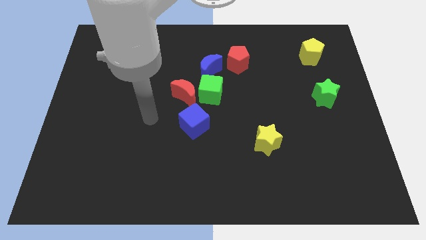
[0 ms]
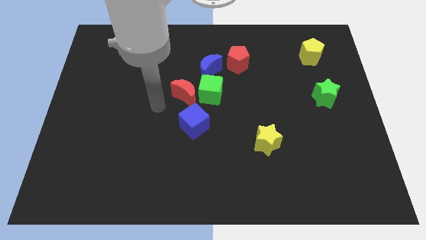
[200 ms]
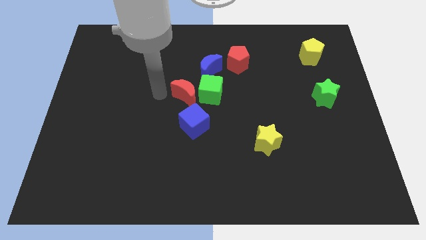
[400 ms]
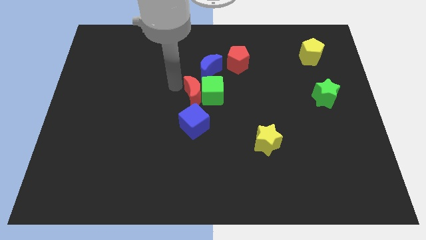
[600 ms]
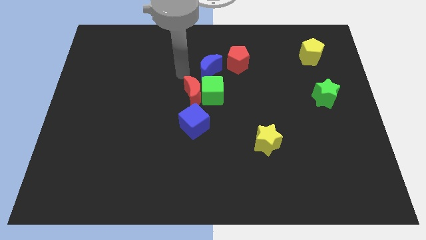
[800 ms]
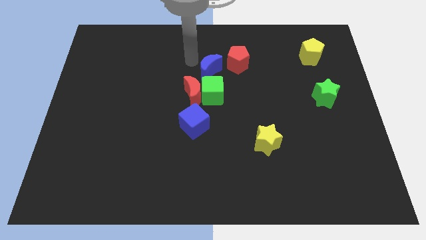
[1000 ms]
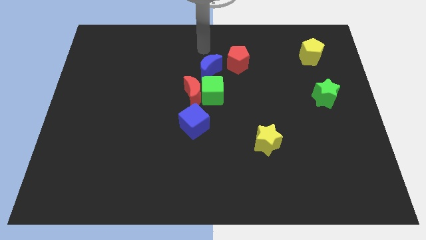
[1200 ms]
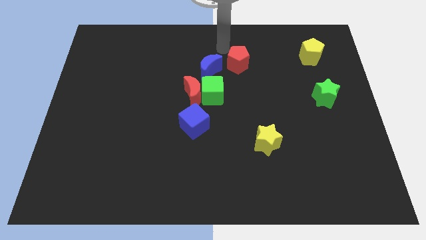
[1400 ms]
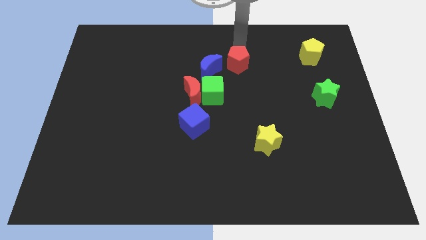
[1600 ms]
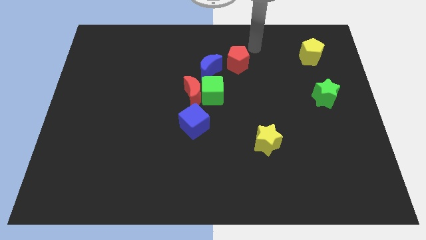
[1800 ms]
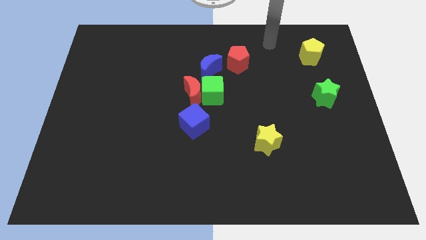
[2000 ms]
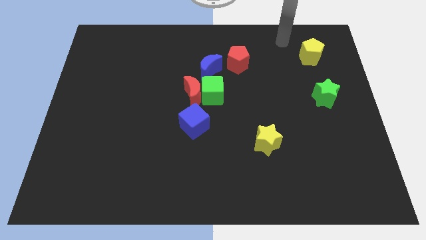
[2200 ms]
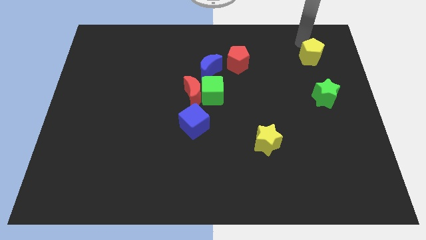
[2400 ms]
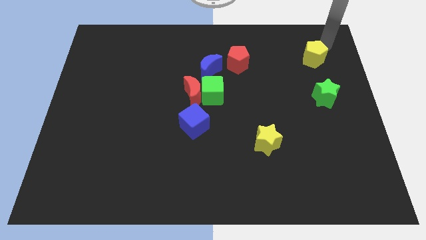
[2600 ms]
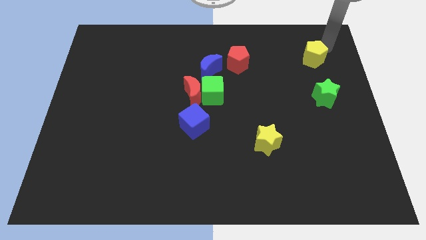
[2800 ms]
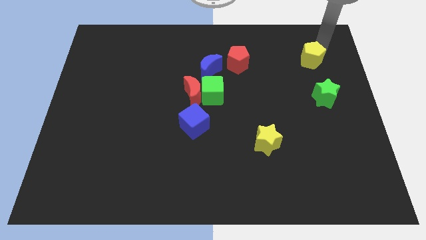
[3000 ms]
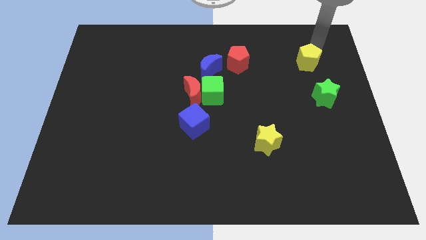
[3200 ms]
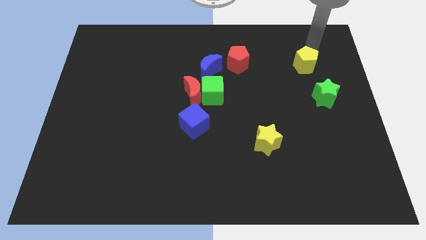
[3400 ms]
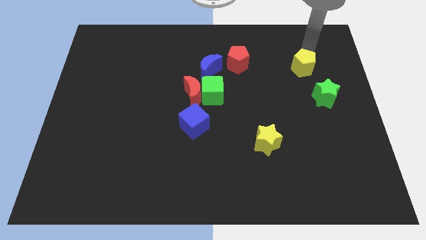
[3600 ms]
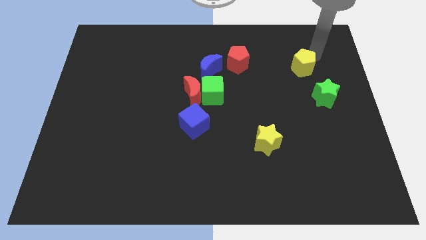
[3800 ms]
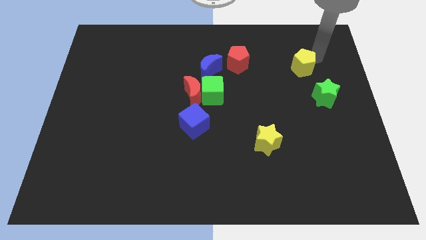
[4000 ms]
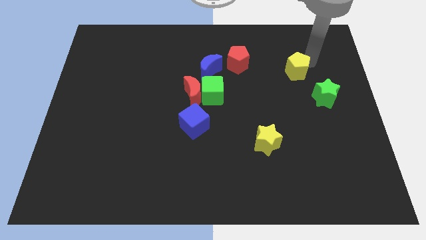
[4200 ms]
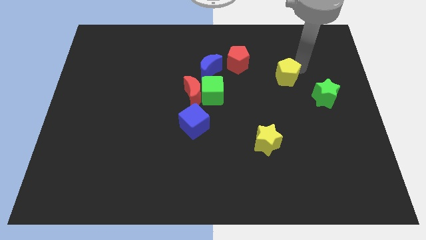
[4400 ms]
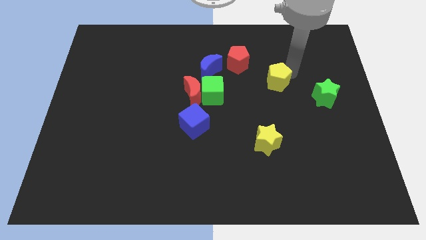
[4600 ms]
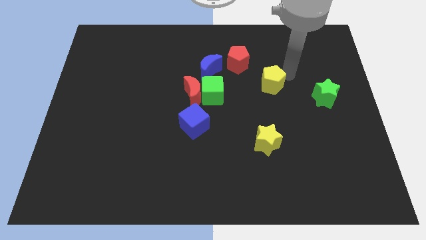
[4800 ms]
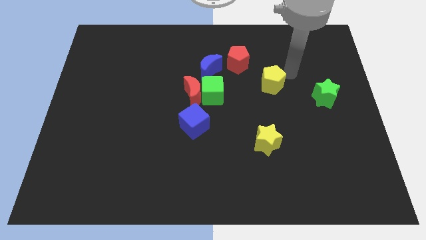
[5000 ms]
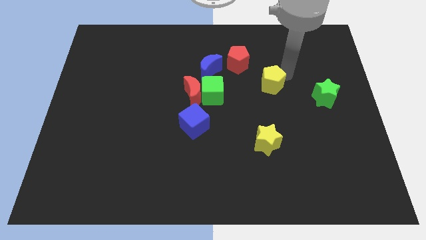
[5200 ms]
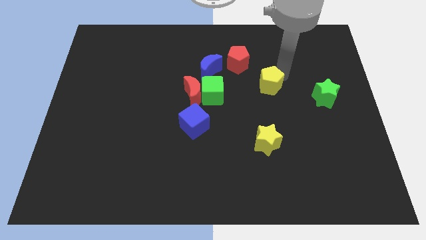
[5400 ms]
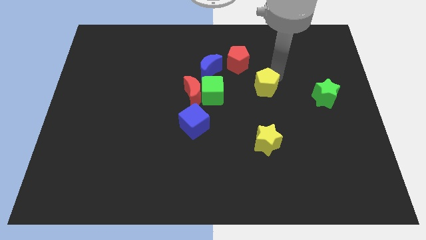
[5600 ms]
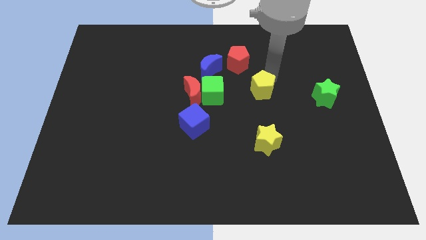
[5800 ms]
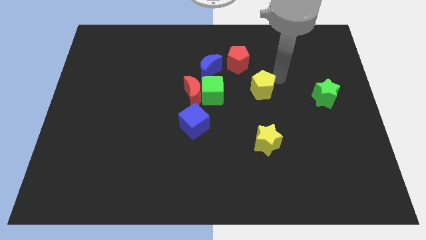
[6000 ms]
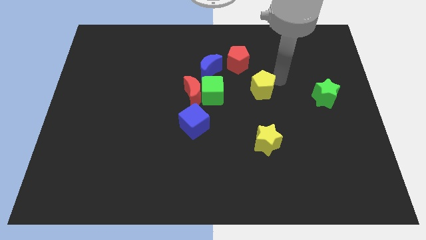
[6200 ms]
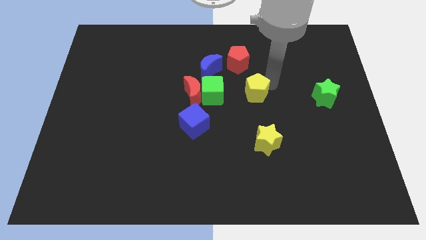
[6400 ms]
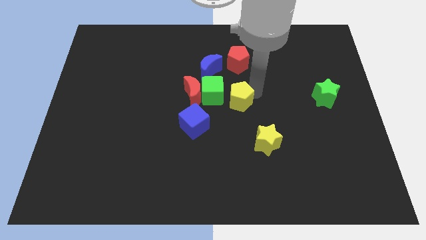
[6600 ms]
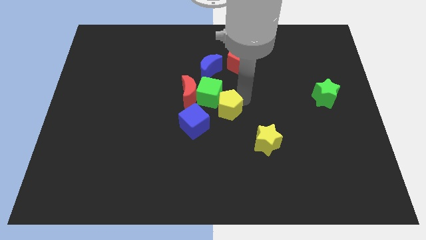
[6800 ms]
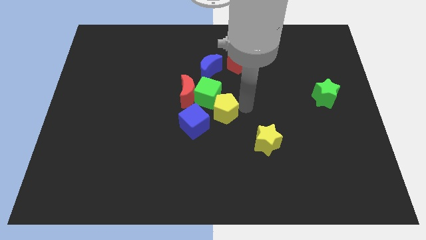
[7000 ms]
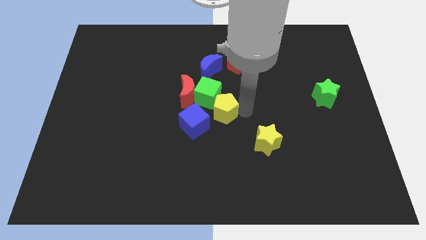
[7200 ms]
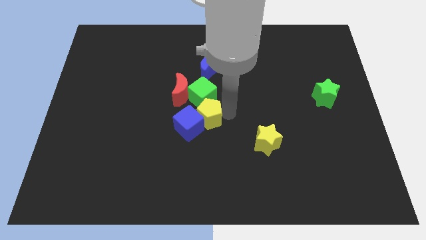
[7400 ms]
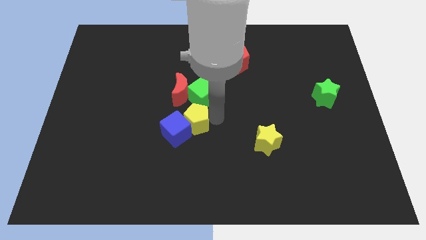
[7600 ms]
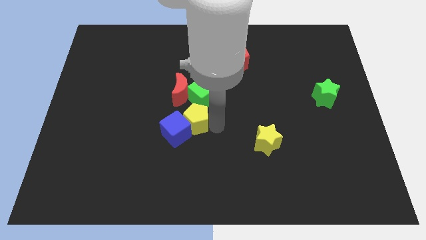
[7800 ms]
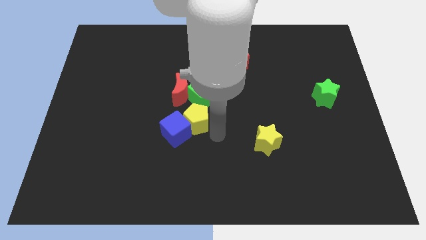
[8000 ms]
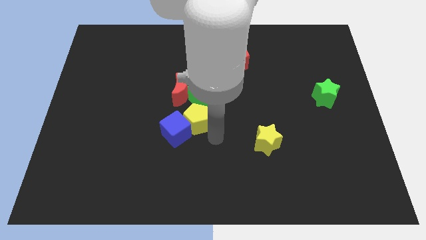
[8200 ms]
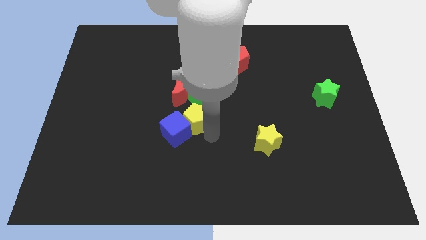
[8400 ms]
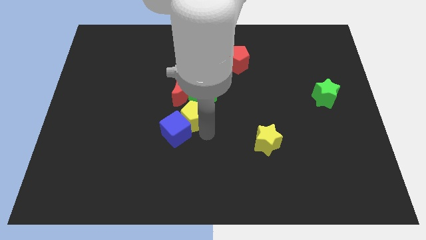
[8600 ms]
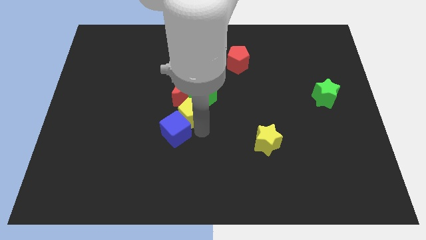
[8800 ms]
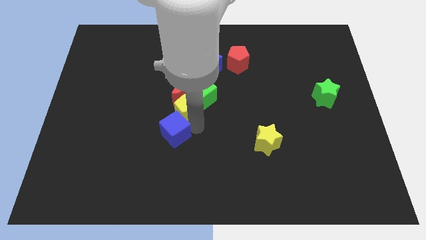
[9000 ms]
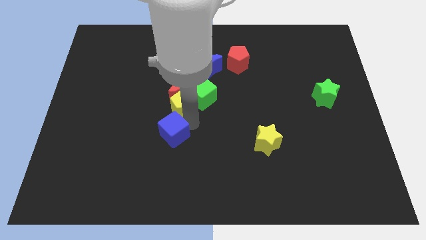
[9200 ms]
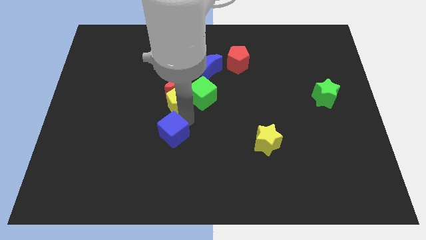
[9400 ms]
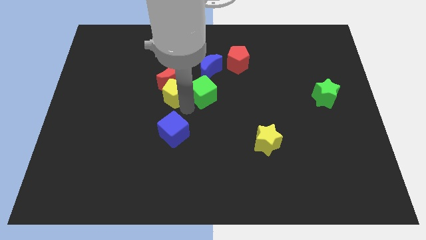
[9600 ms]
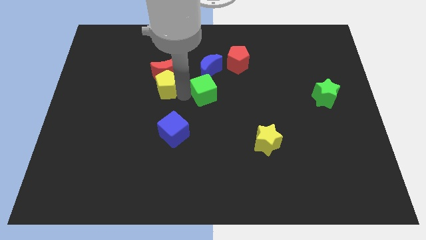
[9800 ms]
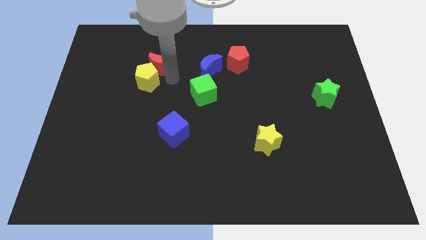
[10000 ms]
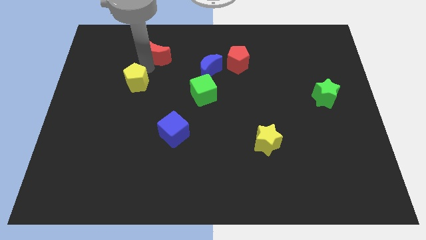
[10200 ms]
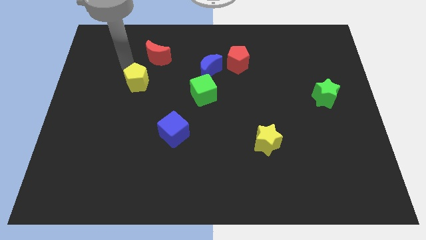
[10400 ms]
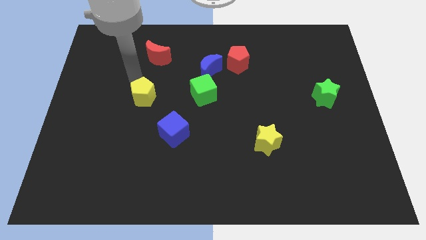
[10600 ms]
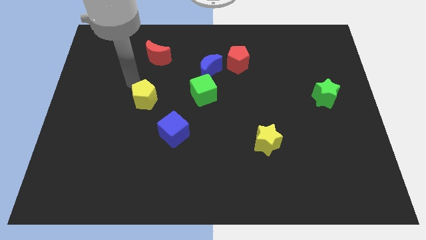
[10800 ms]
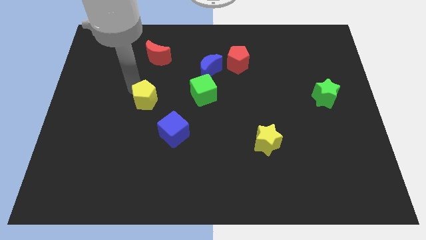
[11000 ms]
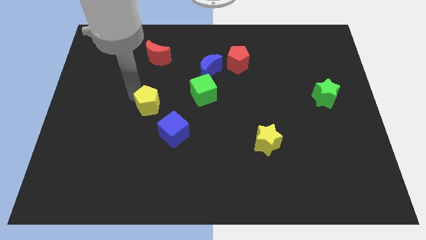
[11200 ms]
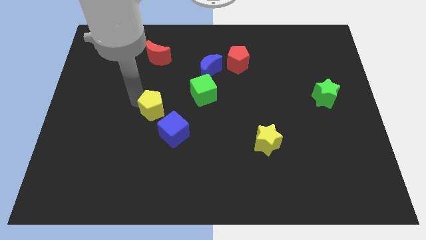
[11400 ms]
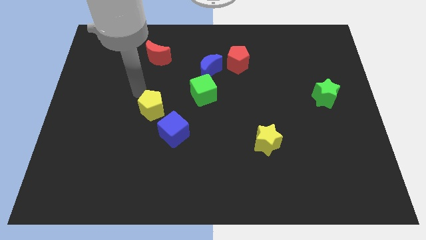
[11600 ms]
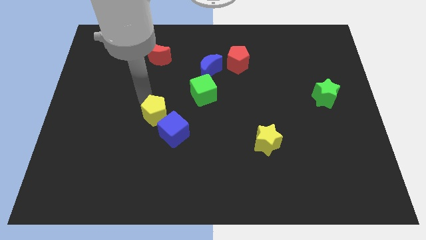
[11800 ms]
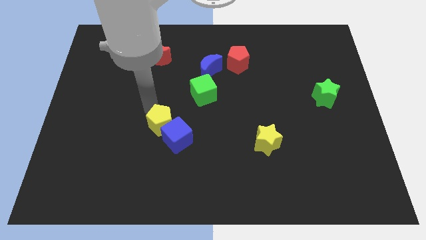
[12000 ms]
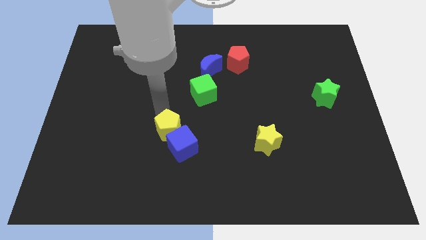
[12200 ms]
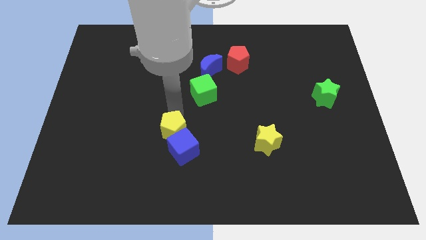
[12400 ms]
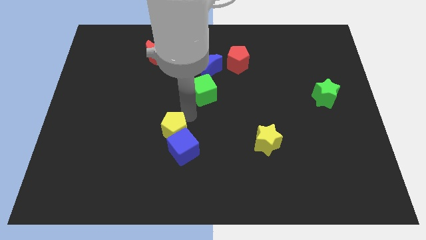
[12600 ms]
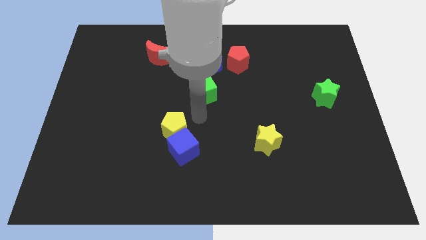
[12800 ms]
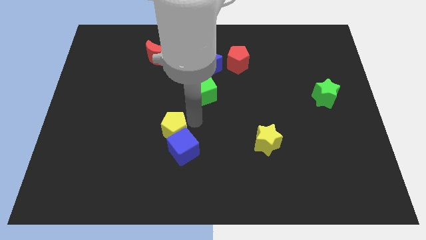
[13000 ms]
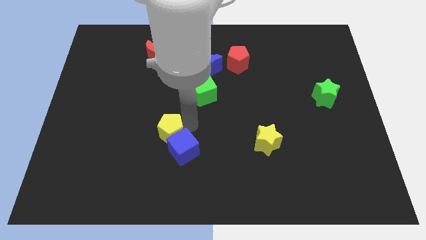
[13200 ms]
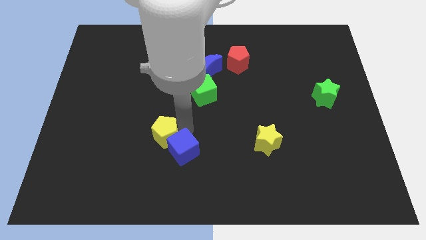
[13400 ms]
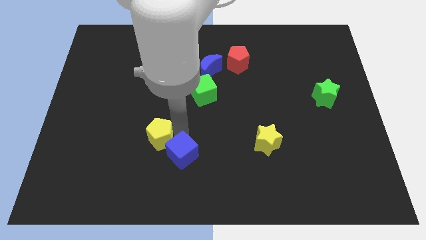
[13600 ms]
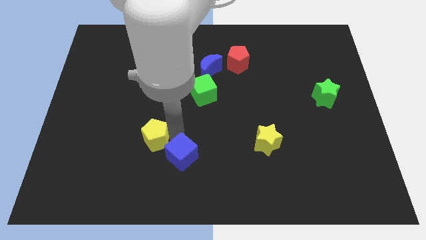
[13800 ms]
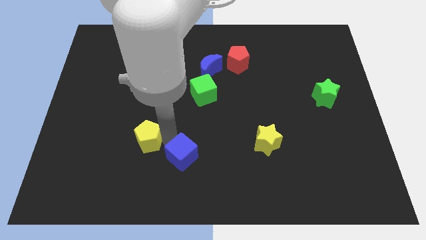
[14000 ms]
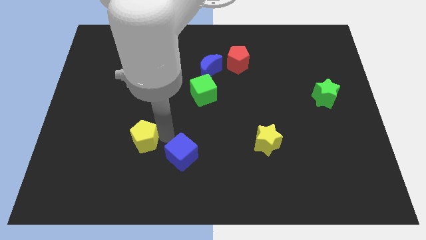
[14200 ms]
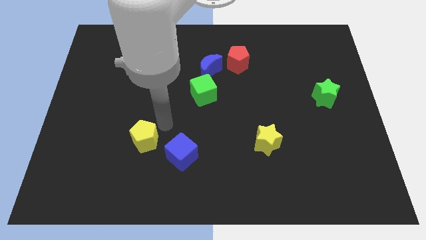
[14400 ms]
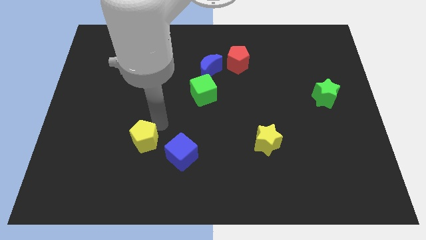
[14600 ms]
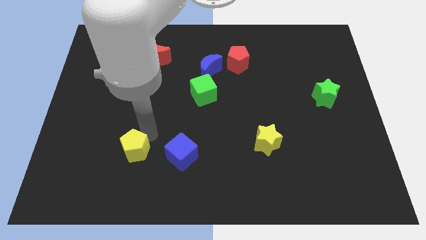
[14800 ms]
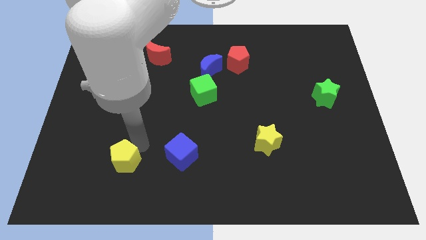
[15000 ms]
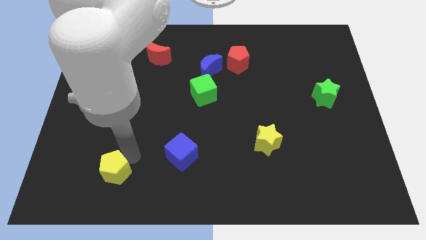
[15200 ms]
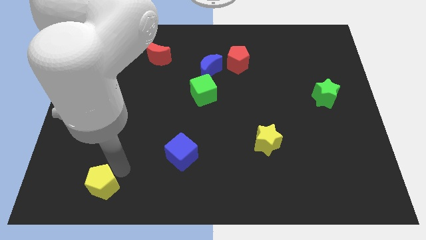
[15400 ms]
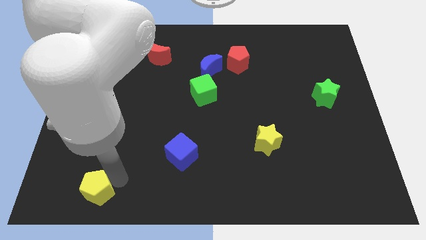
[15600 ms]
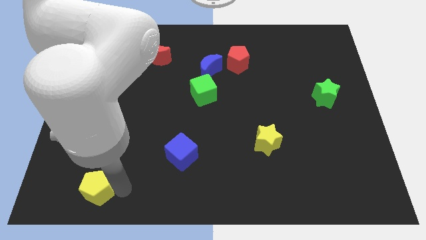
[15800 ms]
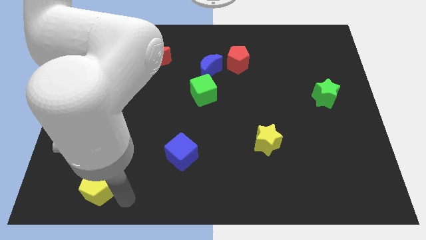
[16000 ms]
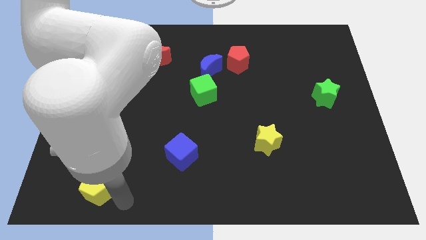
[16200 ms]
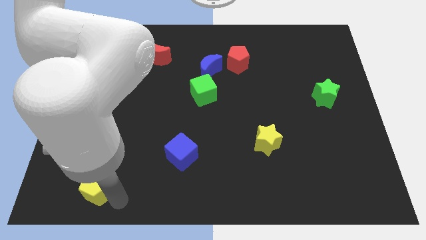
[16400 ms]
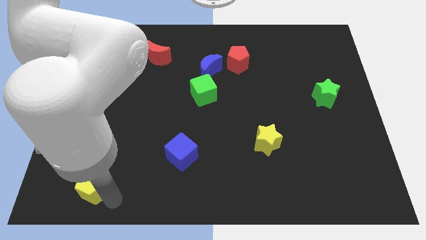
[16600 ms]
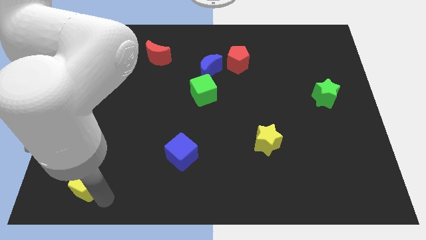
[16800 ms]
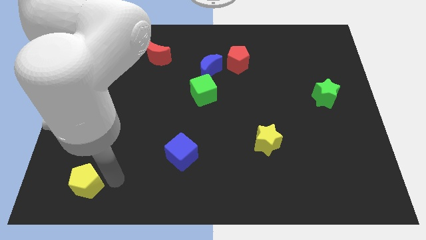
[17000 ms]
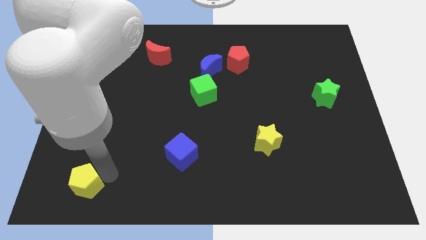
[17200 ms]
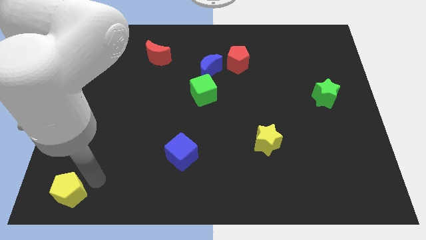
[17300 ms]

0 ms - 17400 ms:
slide the yellow pentagon to the bottom left corner
